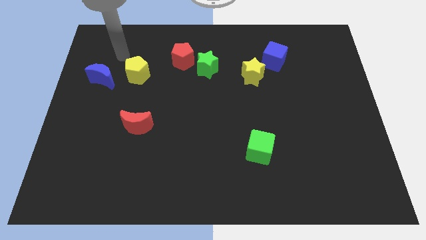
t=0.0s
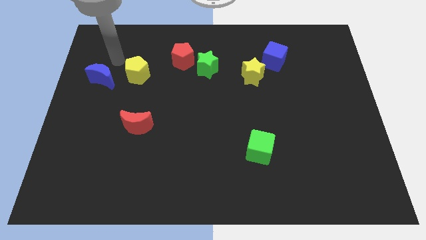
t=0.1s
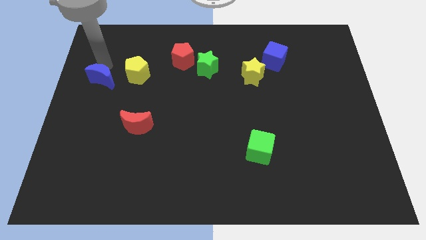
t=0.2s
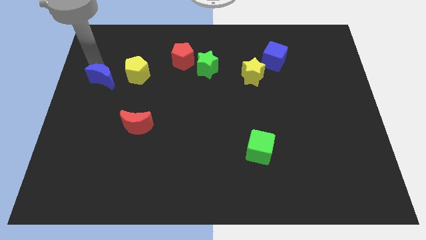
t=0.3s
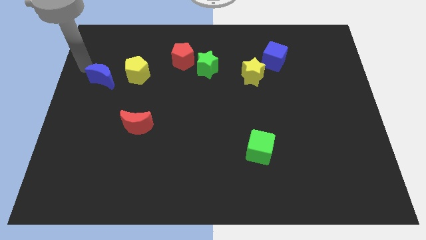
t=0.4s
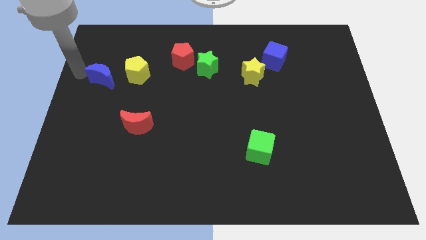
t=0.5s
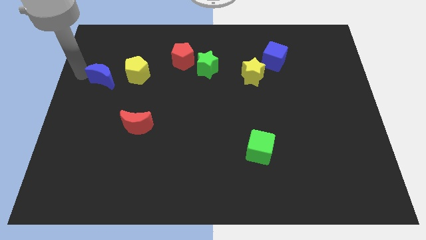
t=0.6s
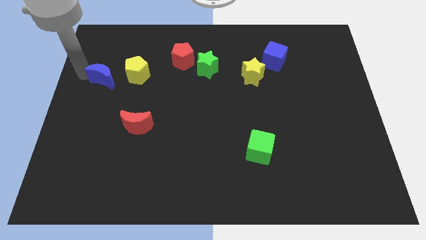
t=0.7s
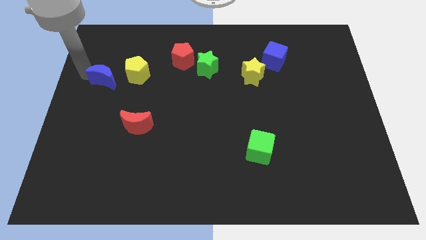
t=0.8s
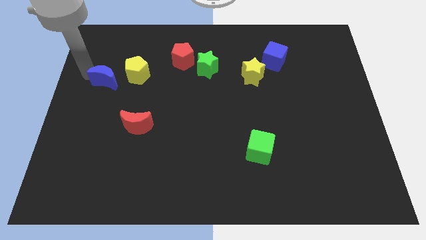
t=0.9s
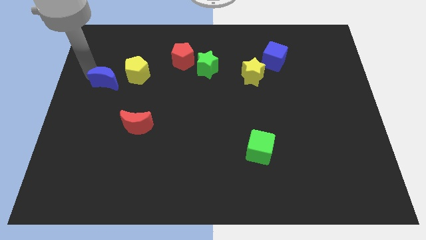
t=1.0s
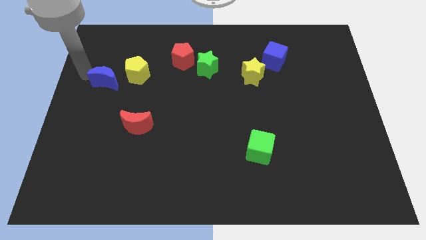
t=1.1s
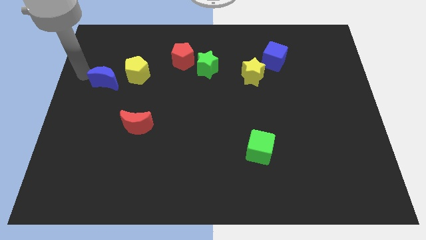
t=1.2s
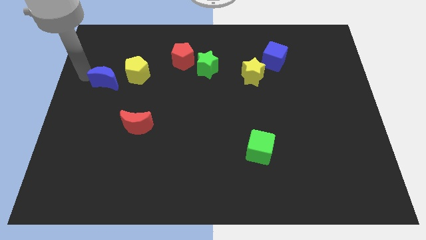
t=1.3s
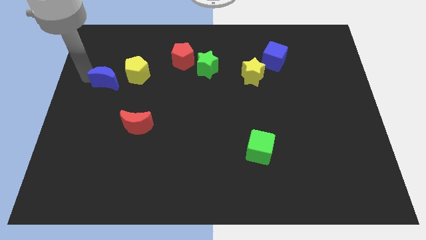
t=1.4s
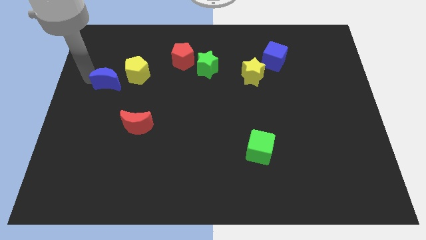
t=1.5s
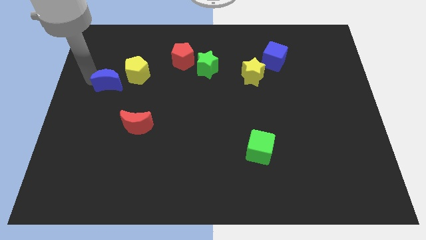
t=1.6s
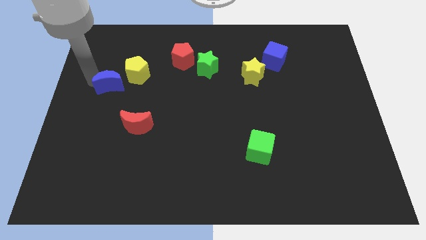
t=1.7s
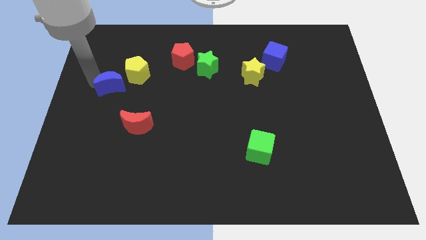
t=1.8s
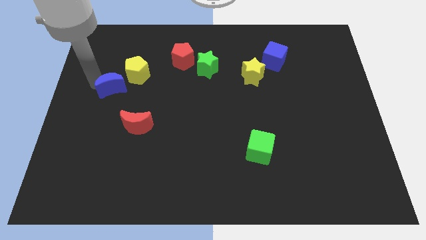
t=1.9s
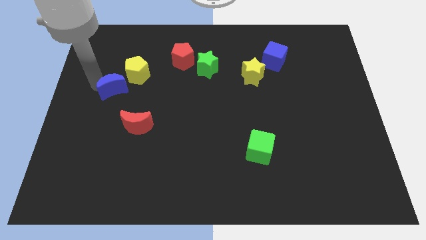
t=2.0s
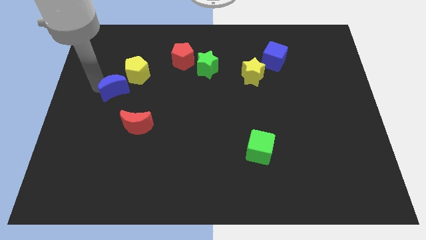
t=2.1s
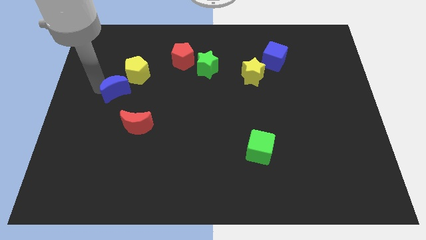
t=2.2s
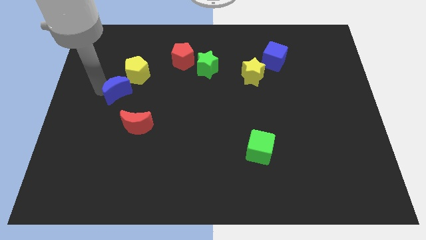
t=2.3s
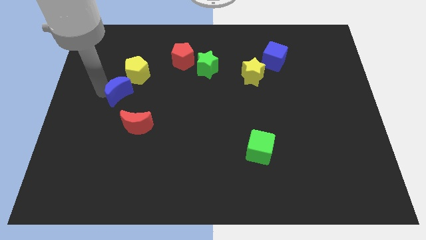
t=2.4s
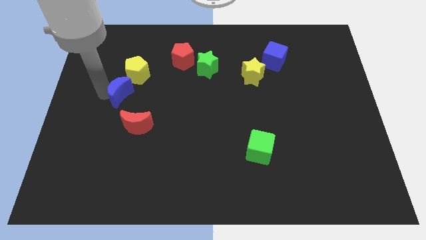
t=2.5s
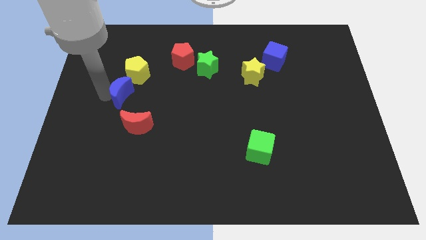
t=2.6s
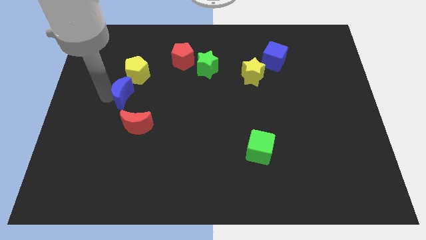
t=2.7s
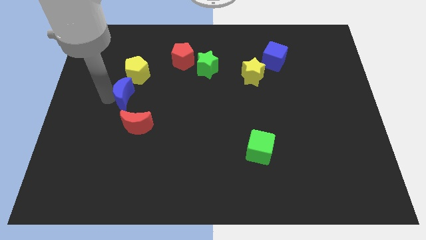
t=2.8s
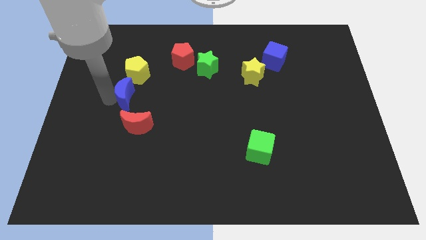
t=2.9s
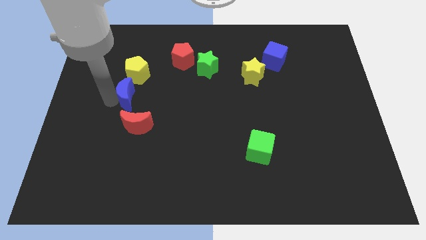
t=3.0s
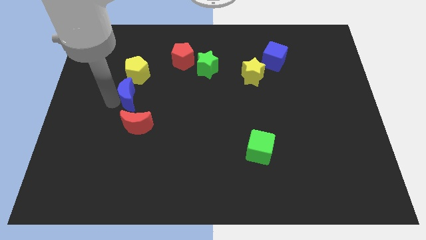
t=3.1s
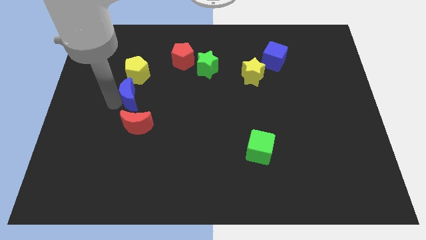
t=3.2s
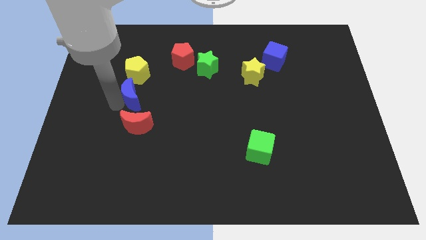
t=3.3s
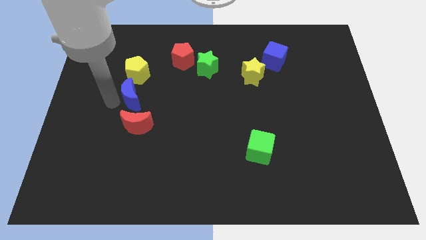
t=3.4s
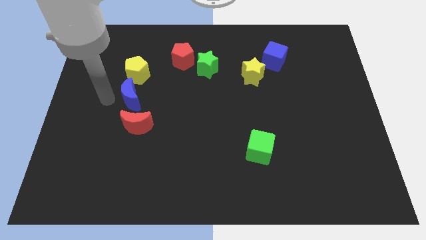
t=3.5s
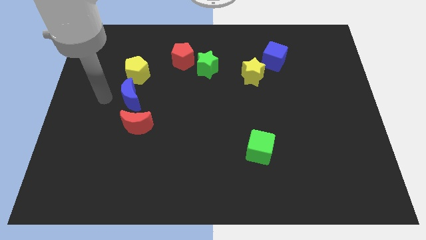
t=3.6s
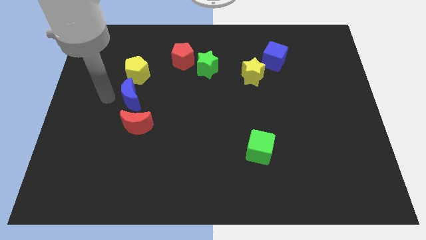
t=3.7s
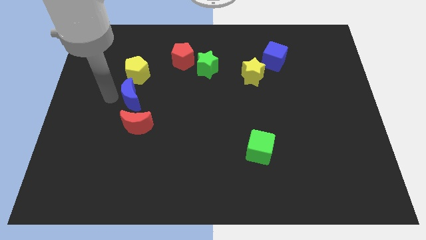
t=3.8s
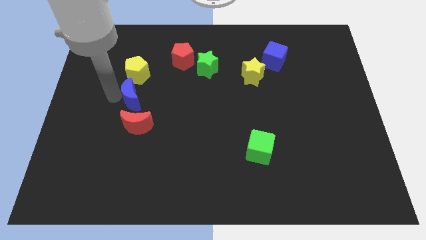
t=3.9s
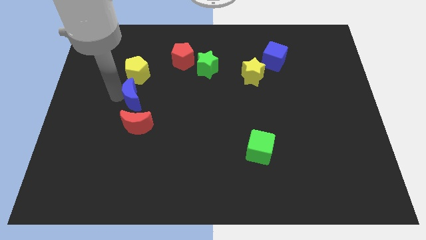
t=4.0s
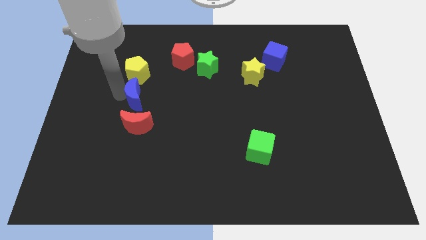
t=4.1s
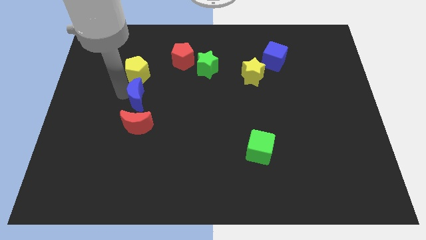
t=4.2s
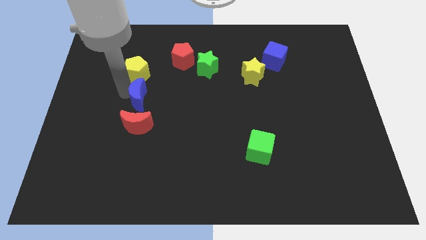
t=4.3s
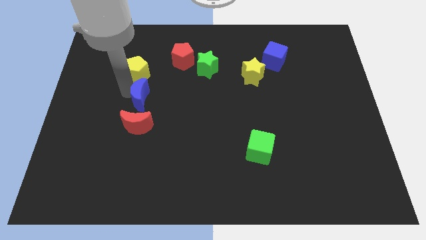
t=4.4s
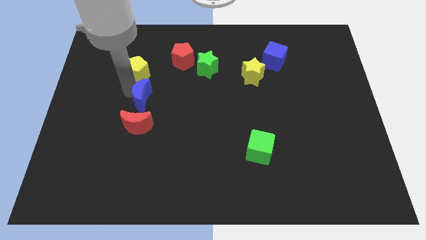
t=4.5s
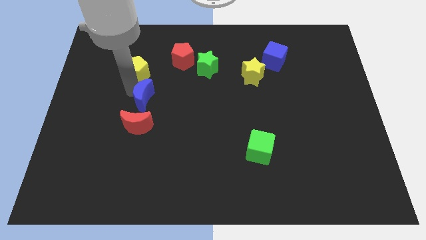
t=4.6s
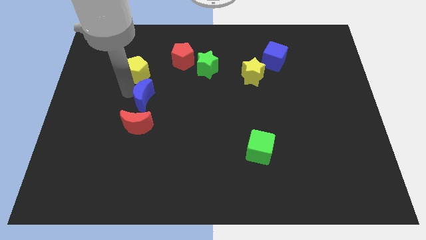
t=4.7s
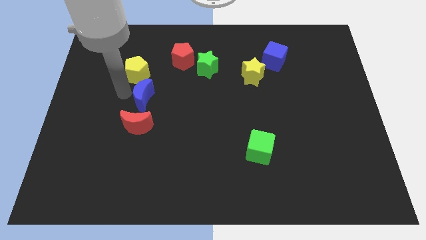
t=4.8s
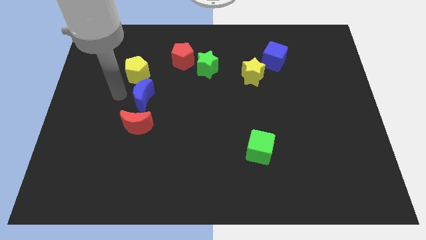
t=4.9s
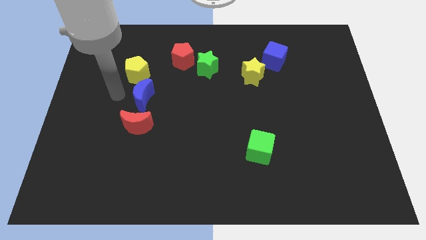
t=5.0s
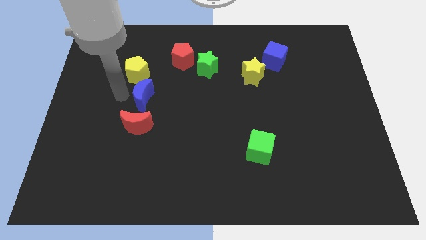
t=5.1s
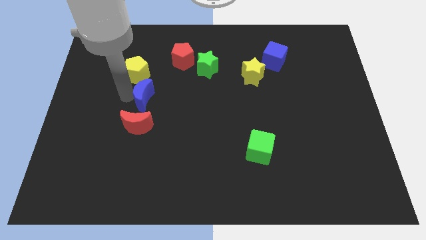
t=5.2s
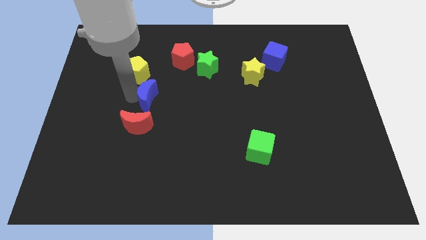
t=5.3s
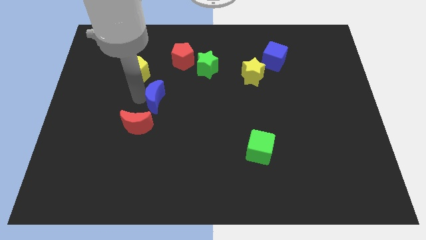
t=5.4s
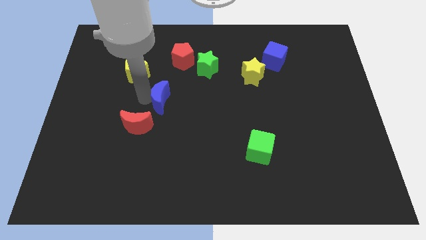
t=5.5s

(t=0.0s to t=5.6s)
move the blue moon to the center of the board
